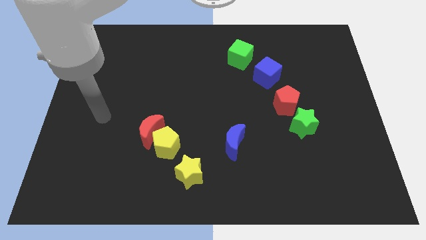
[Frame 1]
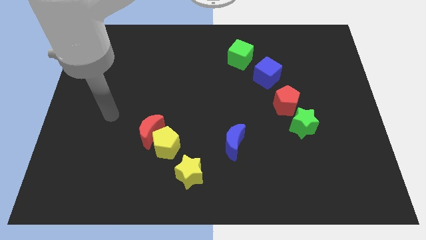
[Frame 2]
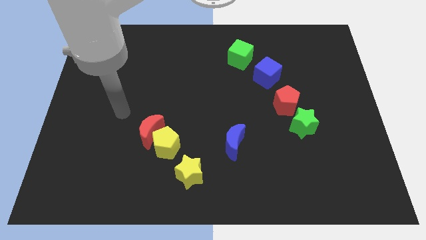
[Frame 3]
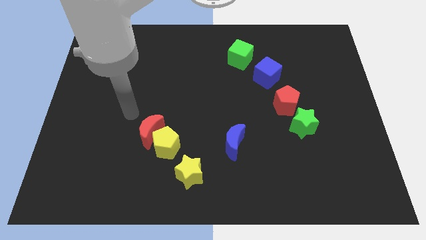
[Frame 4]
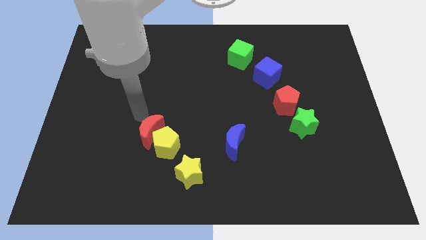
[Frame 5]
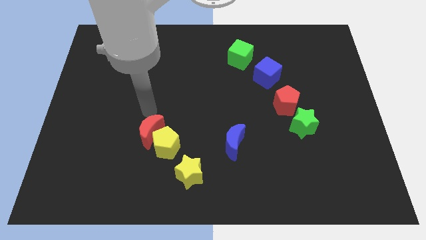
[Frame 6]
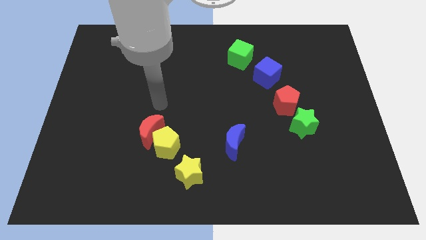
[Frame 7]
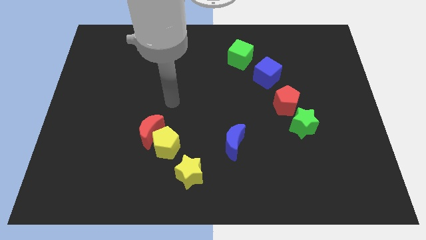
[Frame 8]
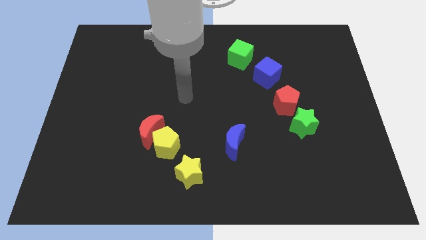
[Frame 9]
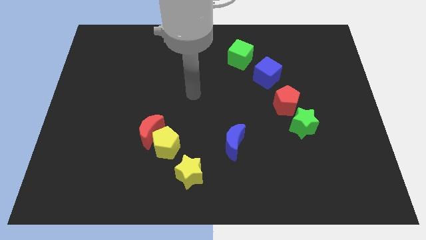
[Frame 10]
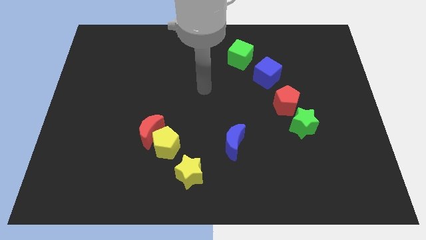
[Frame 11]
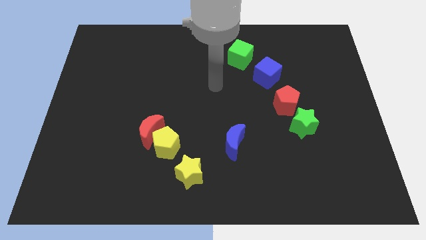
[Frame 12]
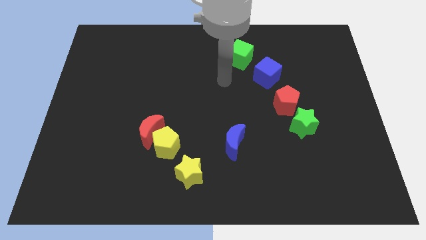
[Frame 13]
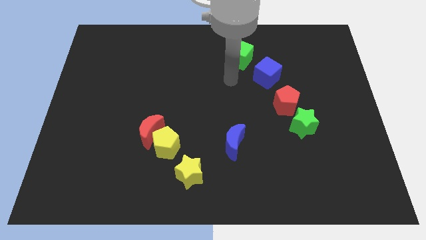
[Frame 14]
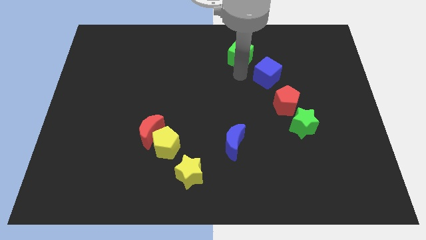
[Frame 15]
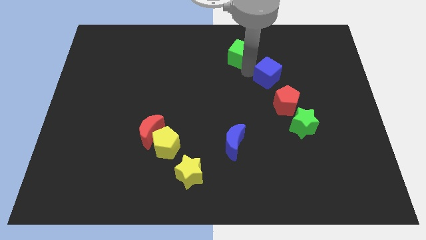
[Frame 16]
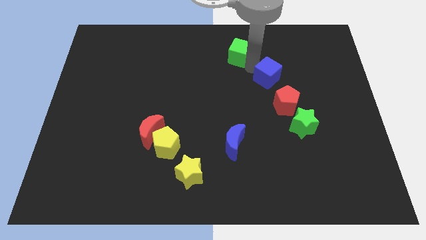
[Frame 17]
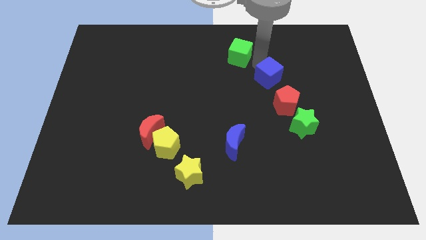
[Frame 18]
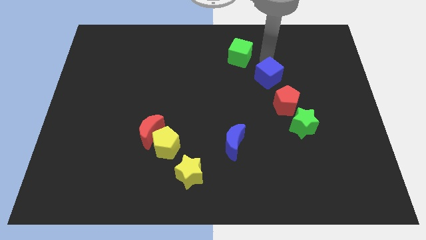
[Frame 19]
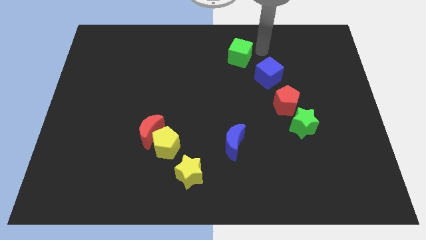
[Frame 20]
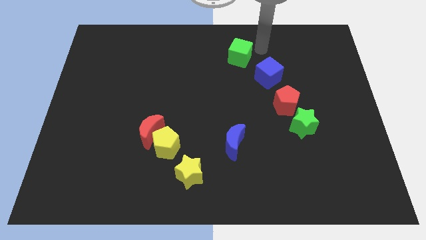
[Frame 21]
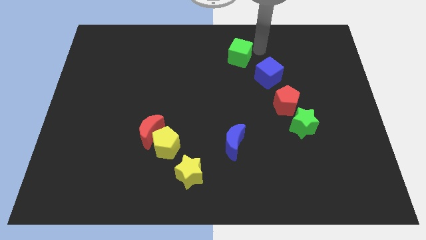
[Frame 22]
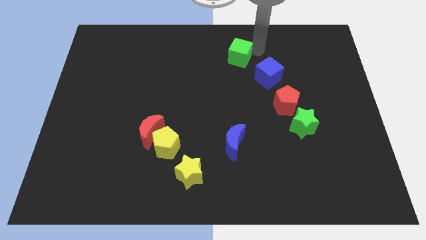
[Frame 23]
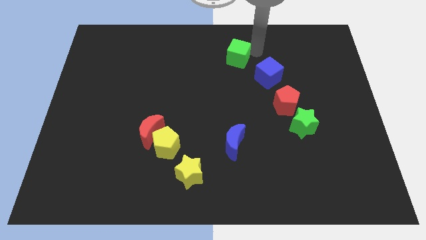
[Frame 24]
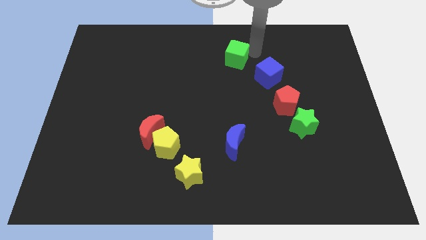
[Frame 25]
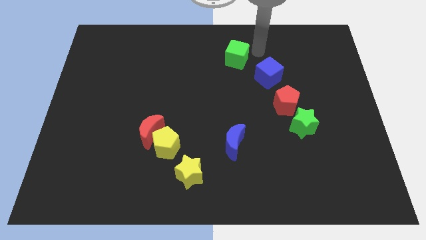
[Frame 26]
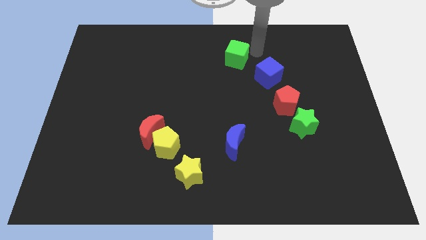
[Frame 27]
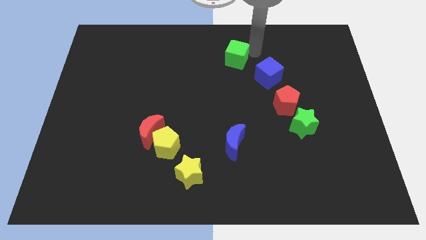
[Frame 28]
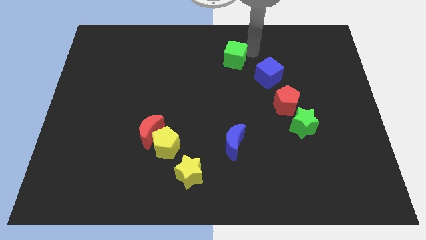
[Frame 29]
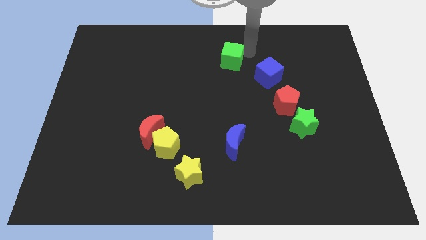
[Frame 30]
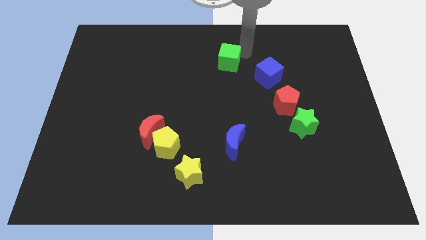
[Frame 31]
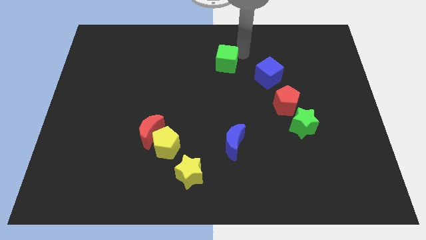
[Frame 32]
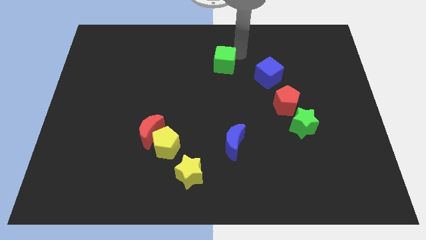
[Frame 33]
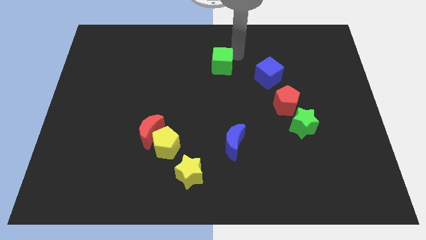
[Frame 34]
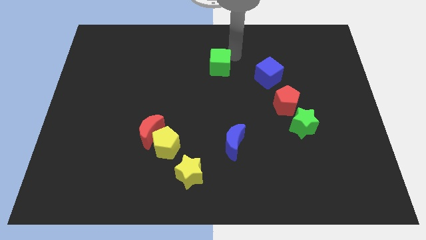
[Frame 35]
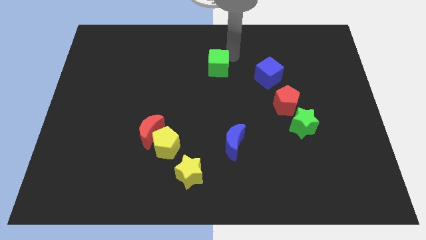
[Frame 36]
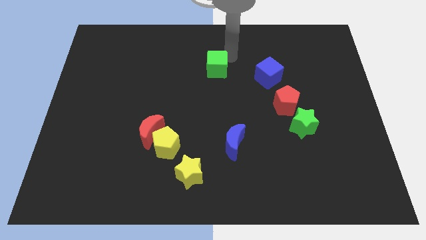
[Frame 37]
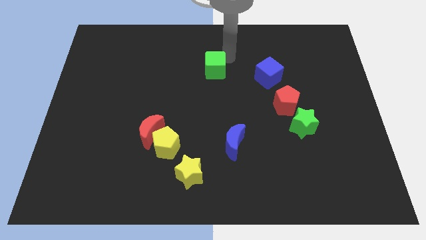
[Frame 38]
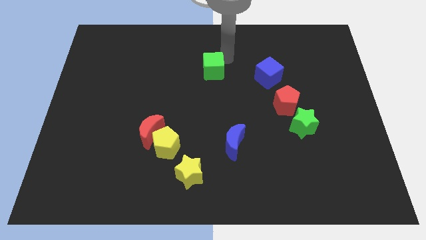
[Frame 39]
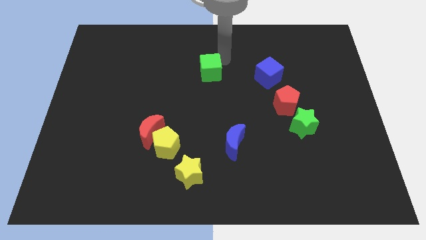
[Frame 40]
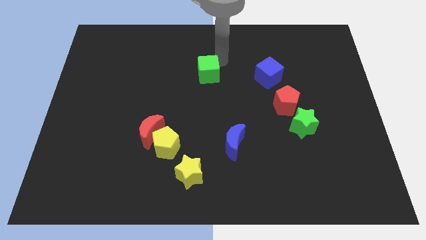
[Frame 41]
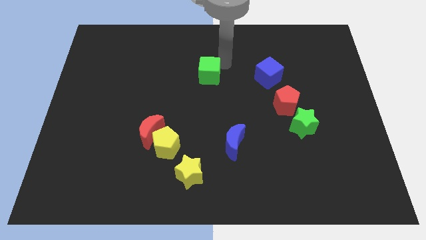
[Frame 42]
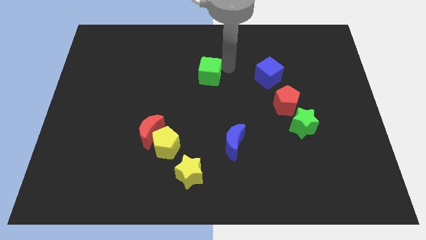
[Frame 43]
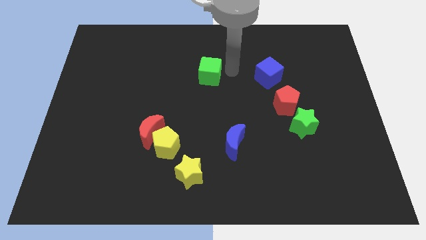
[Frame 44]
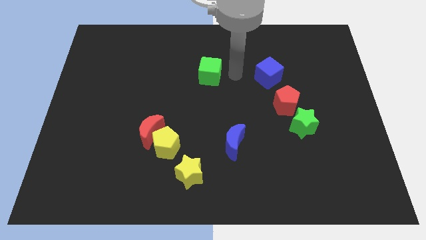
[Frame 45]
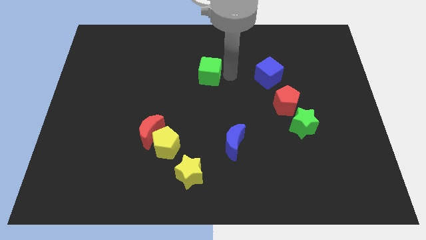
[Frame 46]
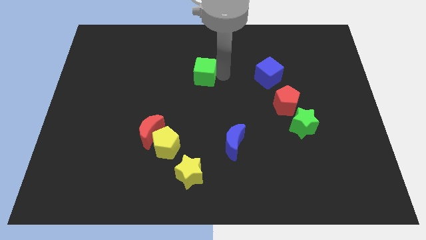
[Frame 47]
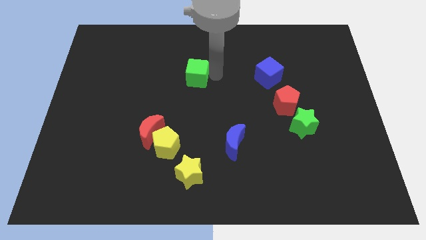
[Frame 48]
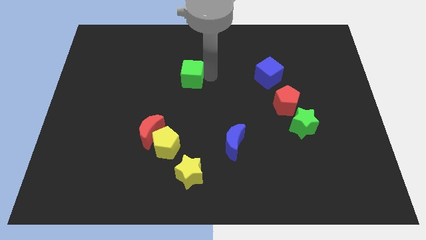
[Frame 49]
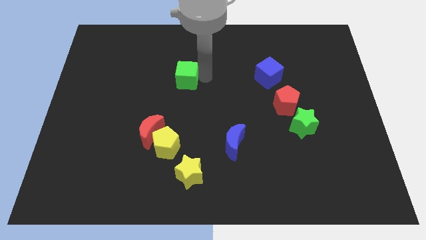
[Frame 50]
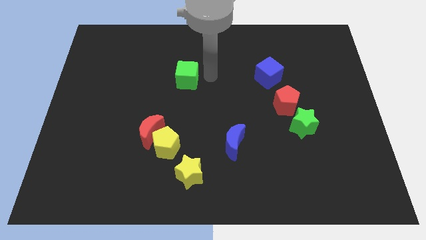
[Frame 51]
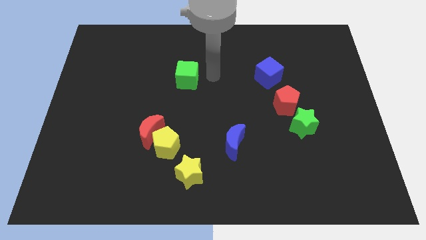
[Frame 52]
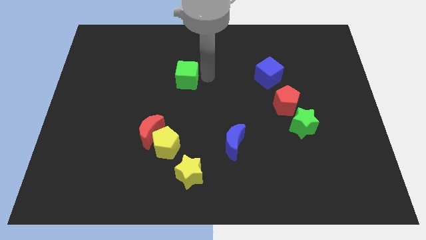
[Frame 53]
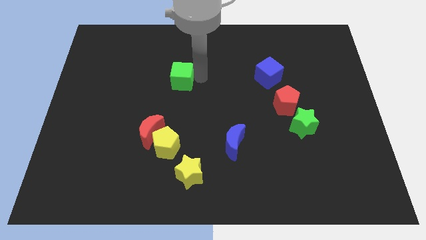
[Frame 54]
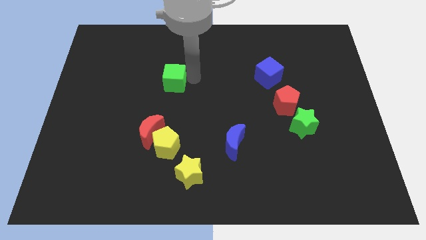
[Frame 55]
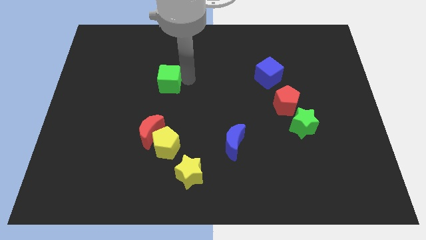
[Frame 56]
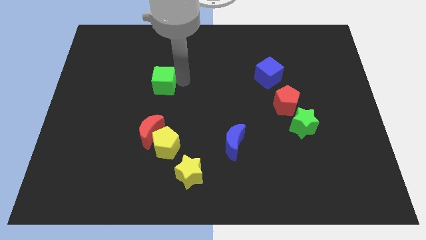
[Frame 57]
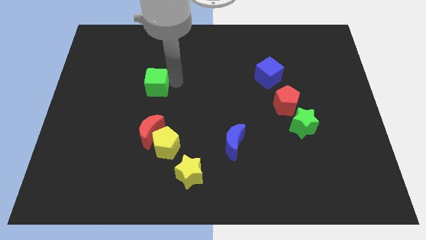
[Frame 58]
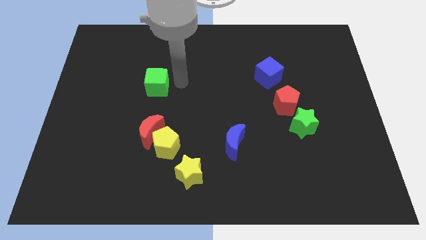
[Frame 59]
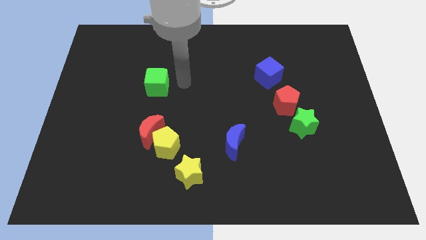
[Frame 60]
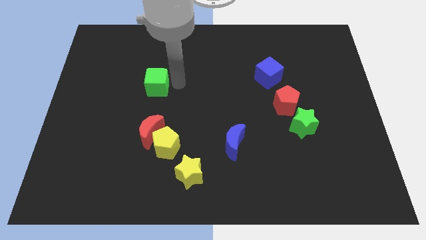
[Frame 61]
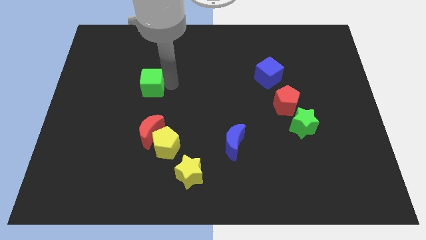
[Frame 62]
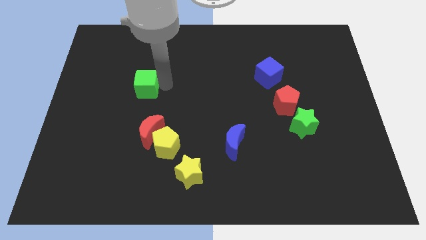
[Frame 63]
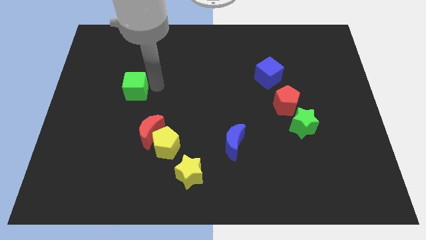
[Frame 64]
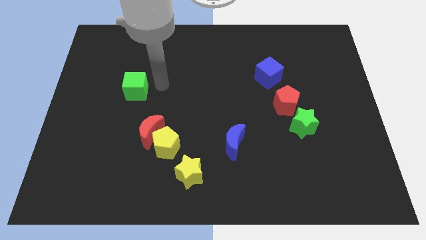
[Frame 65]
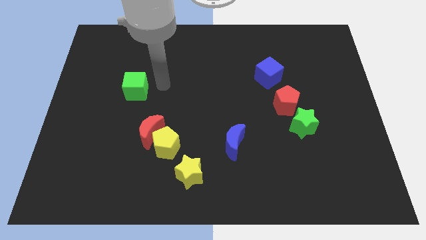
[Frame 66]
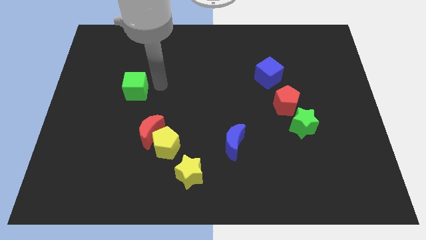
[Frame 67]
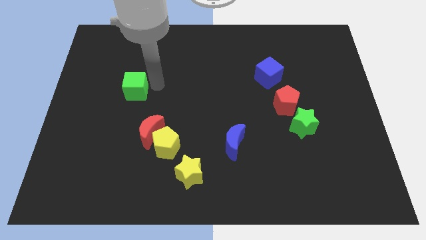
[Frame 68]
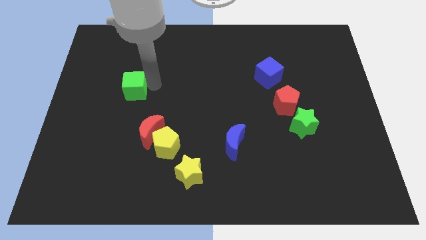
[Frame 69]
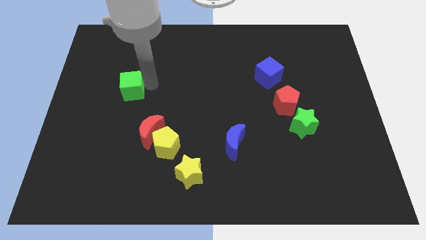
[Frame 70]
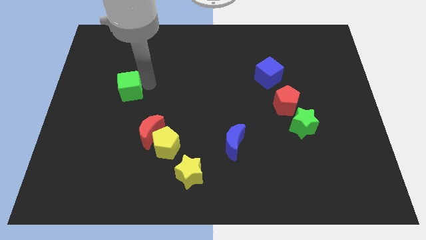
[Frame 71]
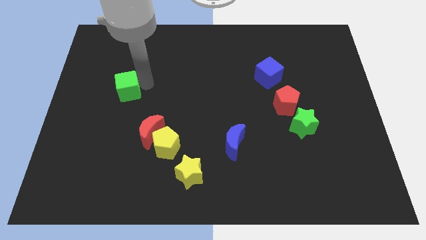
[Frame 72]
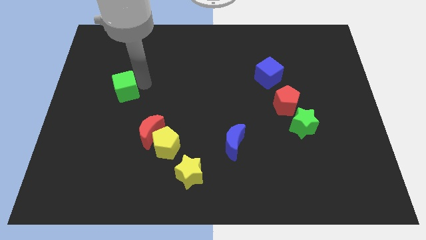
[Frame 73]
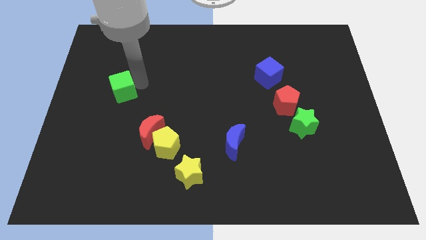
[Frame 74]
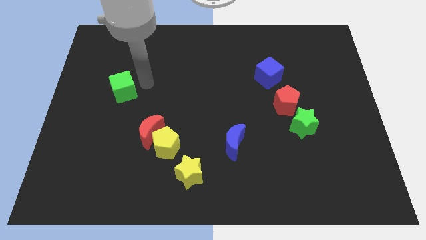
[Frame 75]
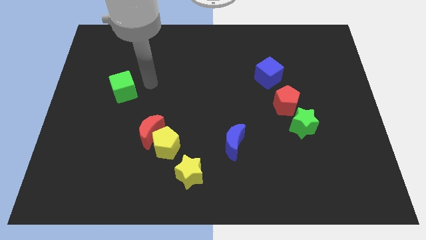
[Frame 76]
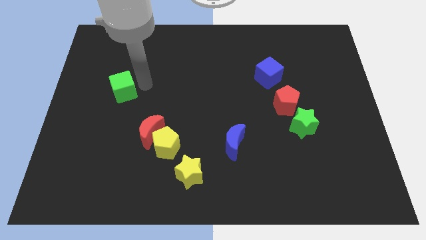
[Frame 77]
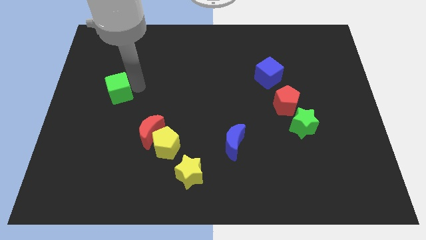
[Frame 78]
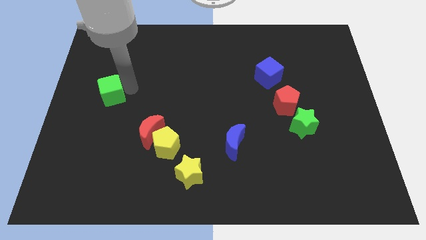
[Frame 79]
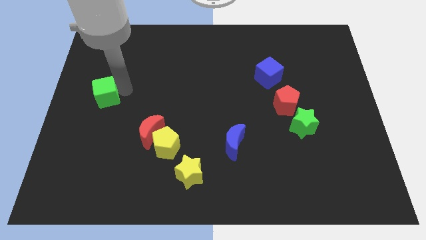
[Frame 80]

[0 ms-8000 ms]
move the green cube to the center left
